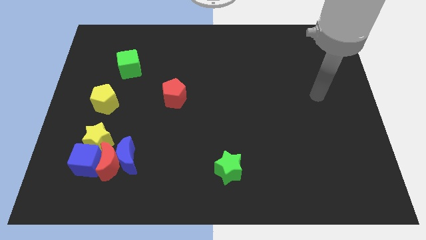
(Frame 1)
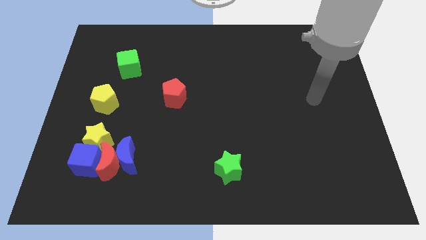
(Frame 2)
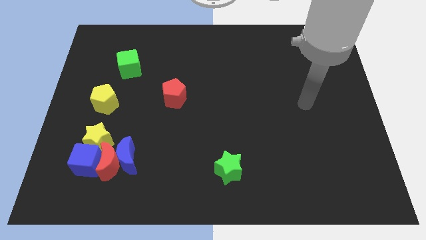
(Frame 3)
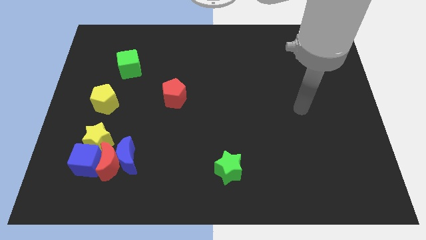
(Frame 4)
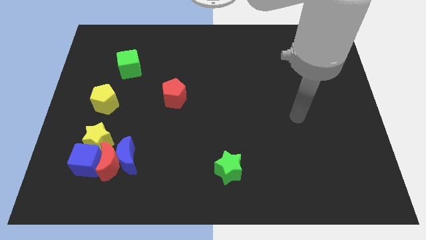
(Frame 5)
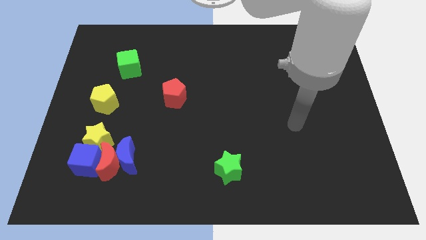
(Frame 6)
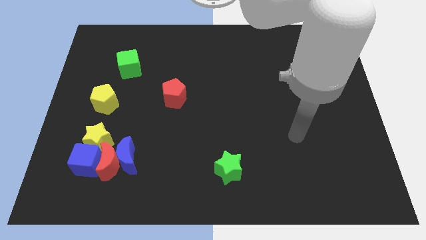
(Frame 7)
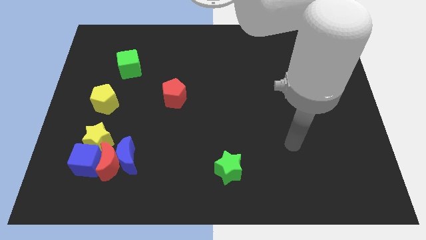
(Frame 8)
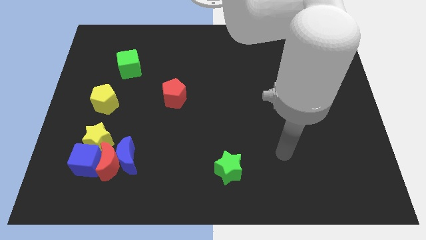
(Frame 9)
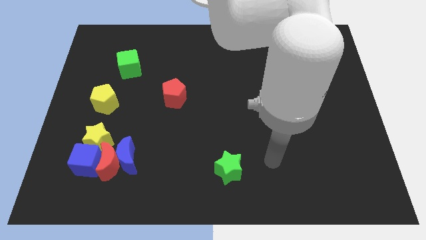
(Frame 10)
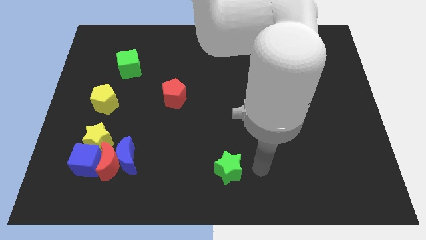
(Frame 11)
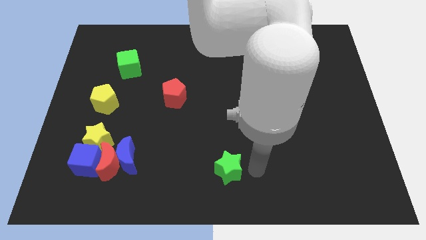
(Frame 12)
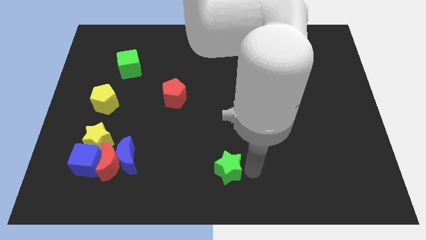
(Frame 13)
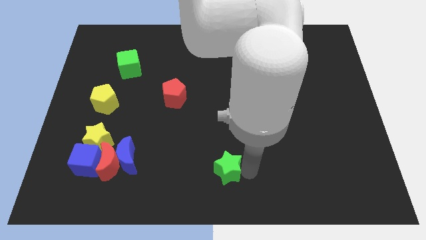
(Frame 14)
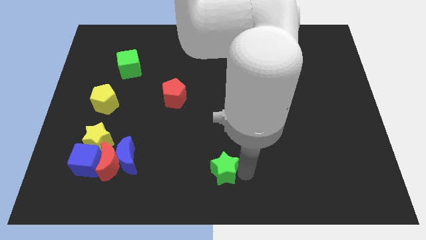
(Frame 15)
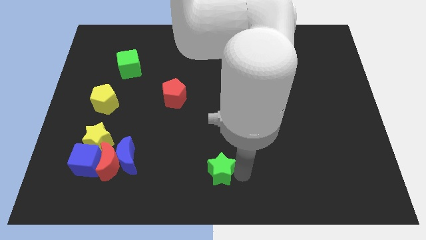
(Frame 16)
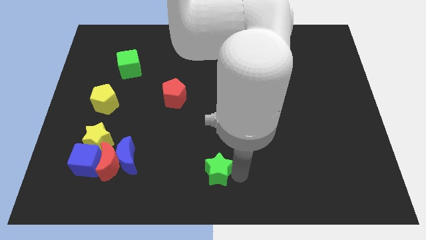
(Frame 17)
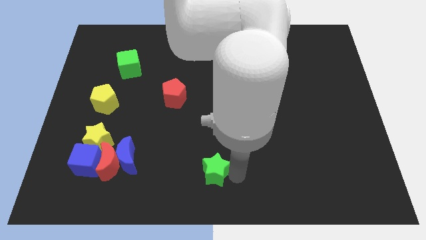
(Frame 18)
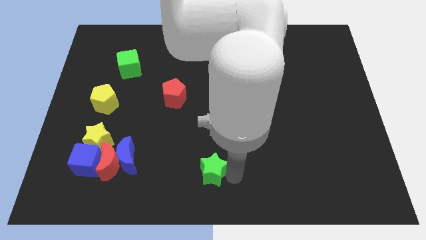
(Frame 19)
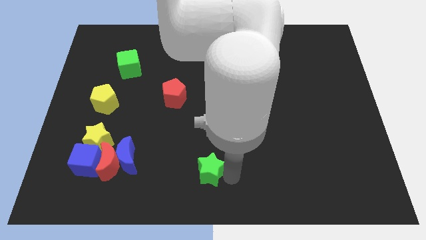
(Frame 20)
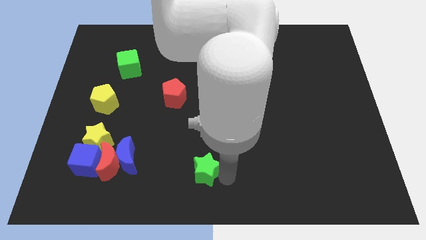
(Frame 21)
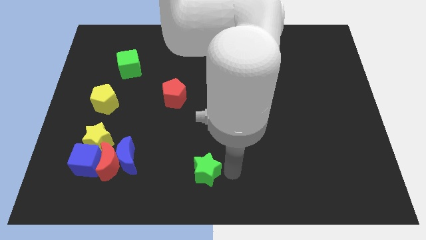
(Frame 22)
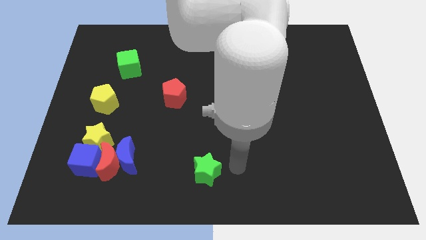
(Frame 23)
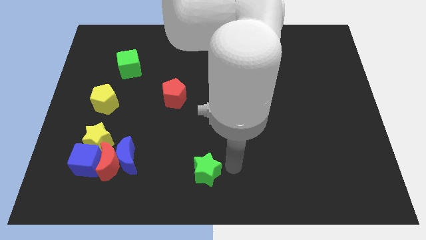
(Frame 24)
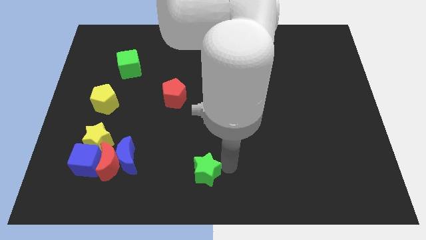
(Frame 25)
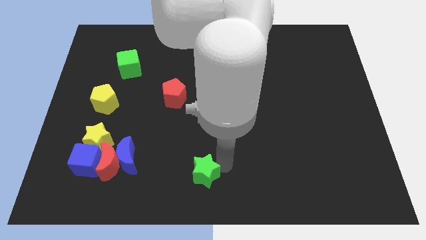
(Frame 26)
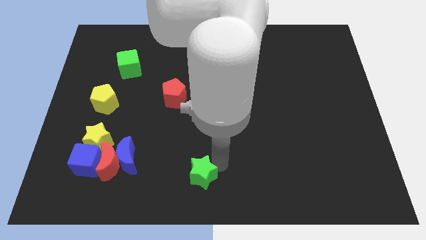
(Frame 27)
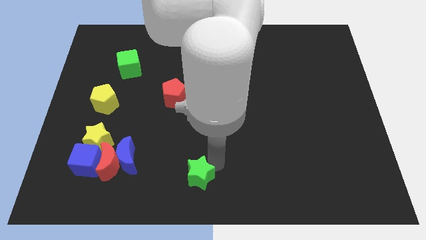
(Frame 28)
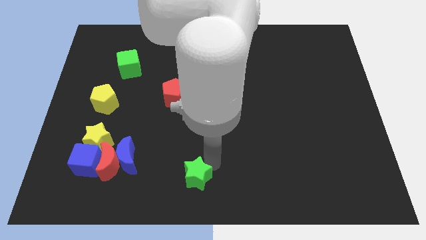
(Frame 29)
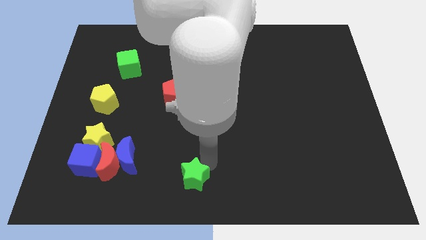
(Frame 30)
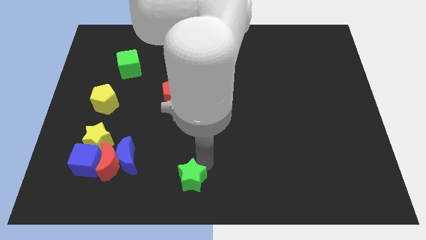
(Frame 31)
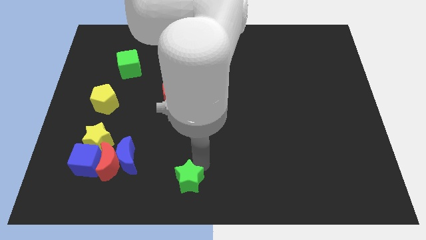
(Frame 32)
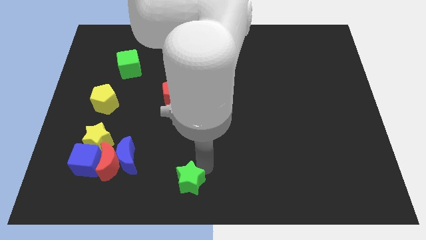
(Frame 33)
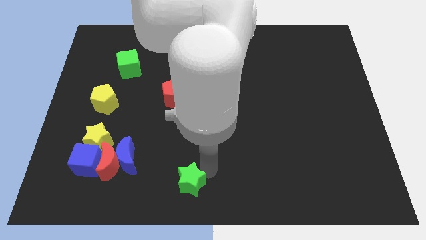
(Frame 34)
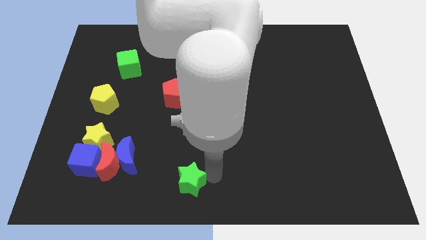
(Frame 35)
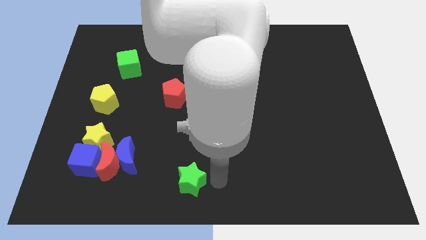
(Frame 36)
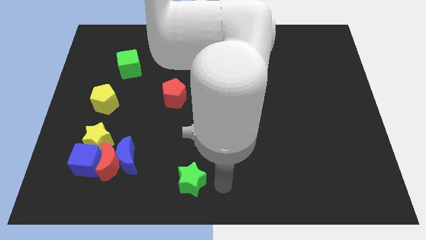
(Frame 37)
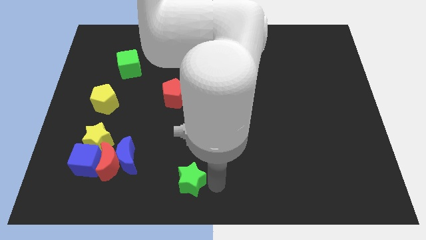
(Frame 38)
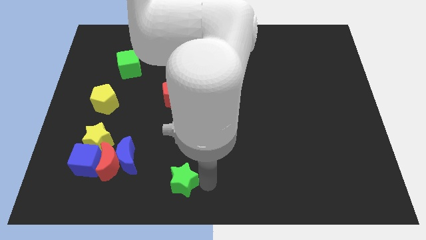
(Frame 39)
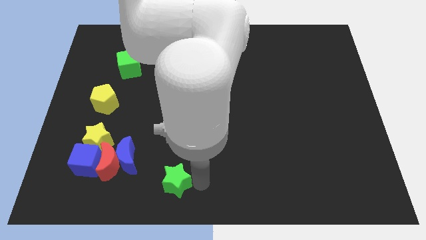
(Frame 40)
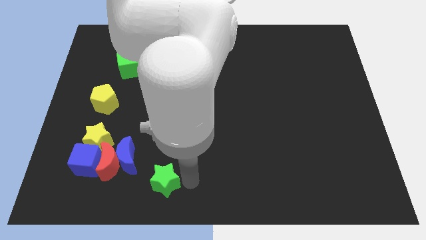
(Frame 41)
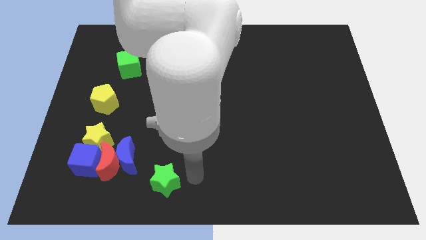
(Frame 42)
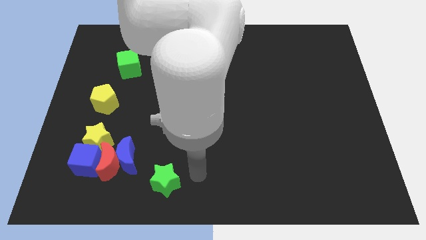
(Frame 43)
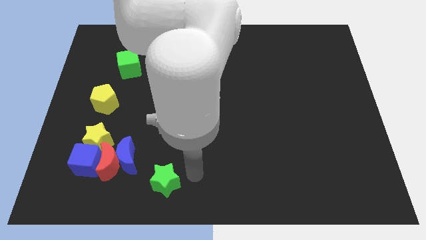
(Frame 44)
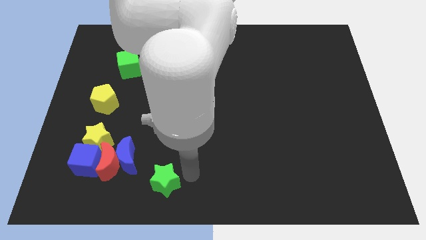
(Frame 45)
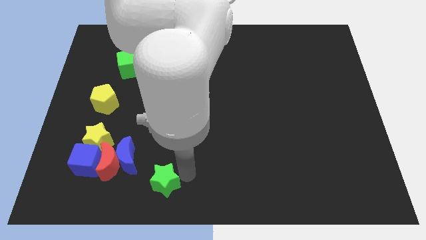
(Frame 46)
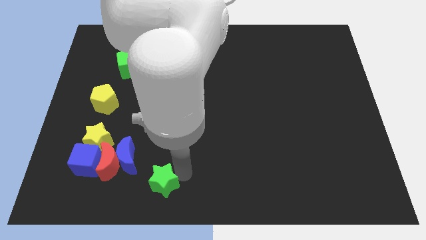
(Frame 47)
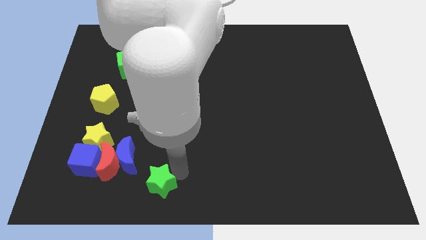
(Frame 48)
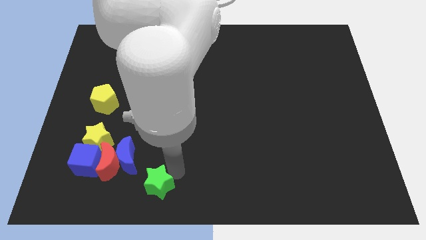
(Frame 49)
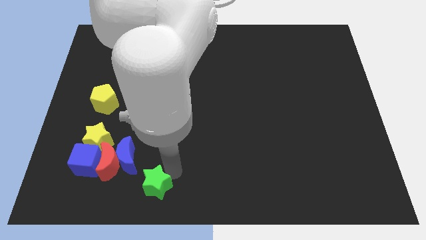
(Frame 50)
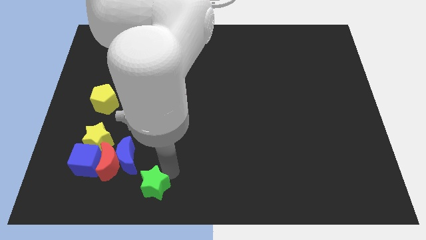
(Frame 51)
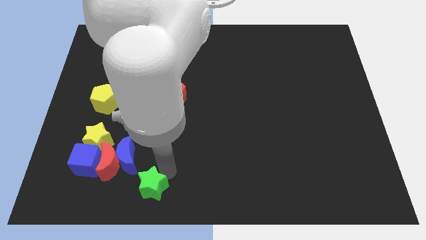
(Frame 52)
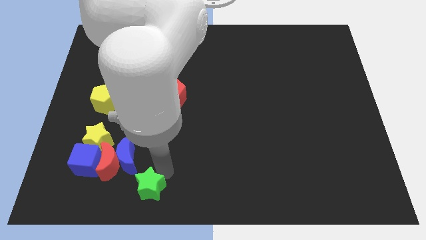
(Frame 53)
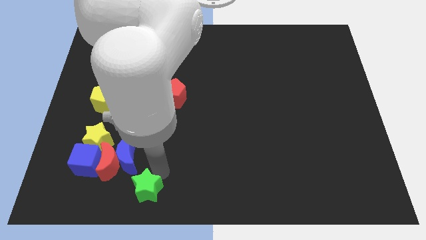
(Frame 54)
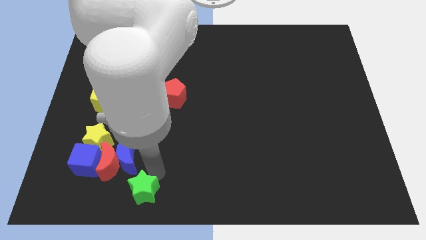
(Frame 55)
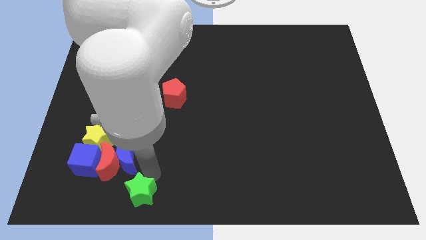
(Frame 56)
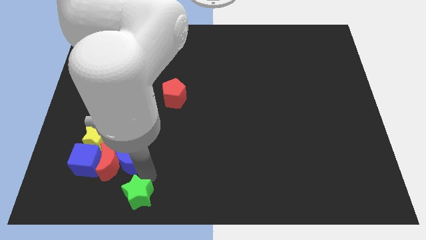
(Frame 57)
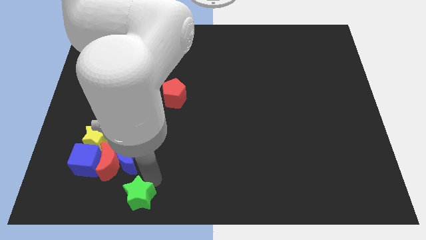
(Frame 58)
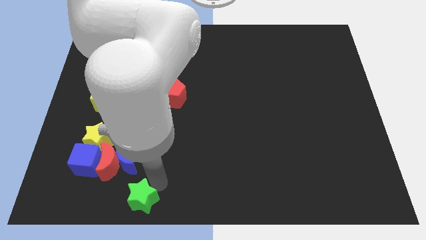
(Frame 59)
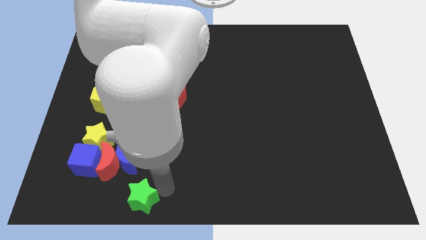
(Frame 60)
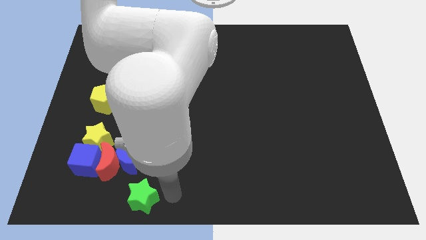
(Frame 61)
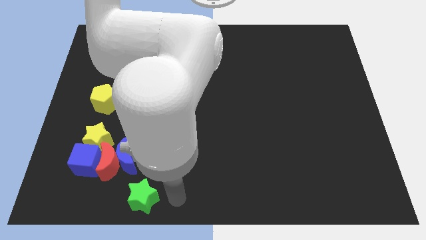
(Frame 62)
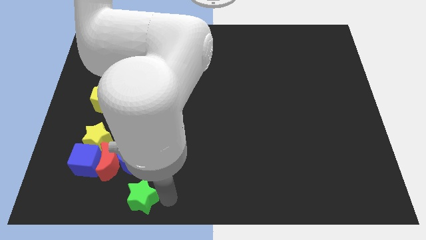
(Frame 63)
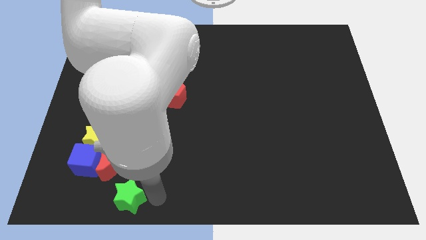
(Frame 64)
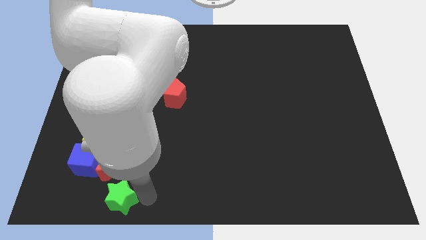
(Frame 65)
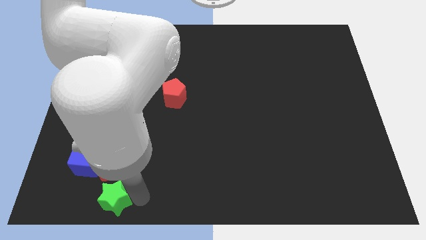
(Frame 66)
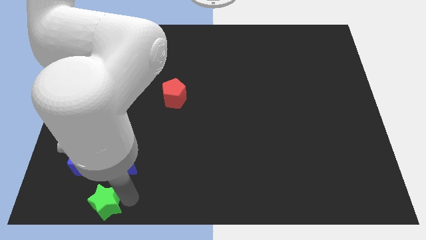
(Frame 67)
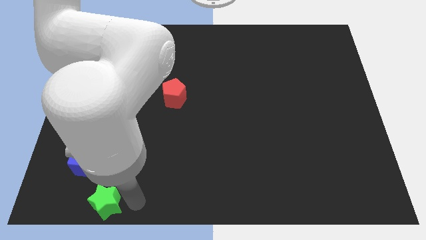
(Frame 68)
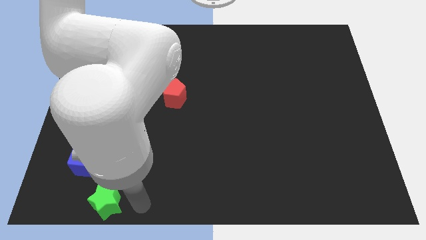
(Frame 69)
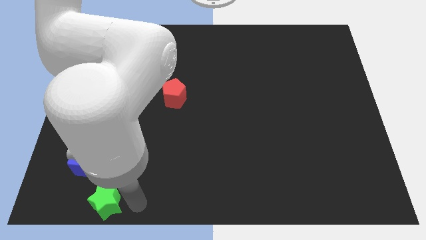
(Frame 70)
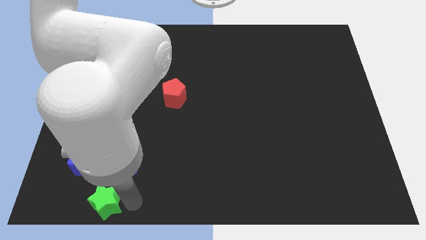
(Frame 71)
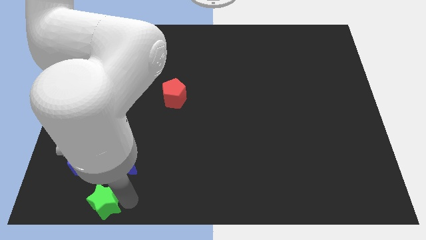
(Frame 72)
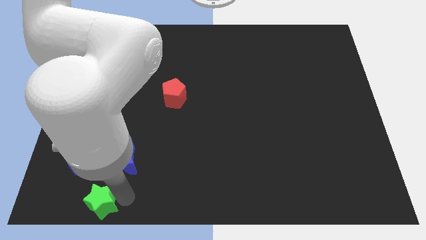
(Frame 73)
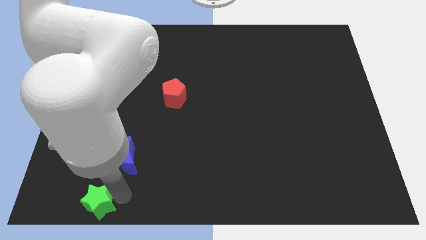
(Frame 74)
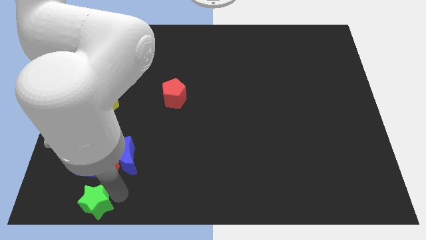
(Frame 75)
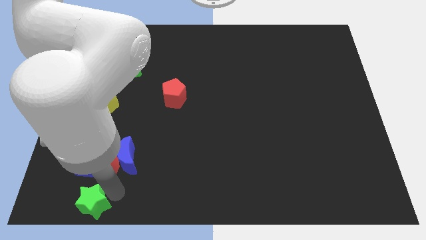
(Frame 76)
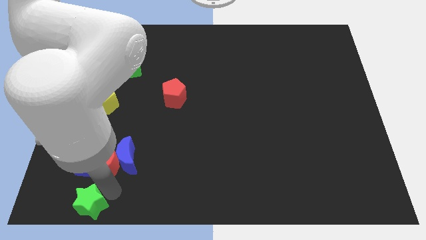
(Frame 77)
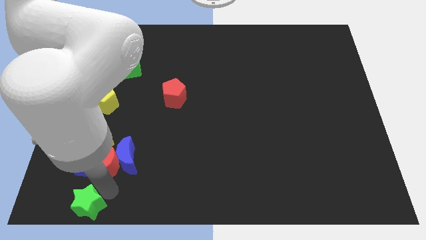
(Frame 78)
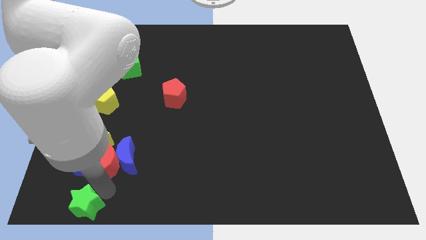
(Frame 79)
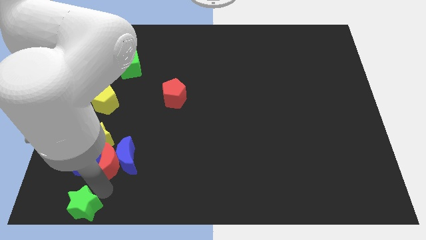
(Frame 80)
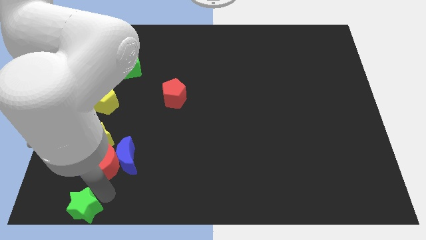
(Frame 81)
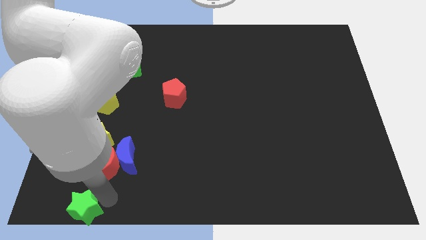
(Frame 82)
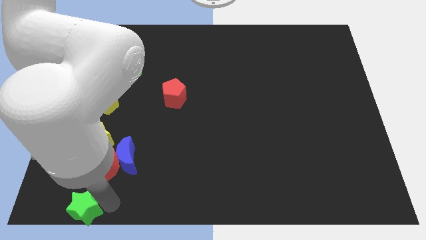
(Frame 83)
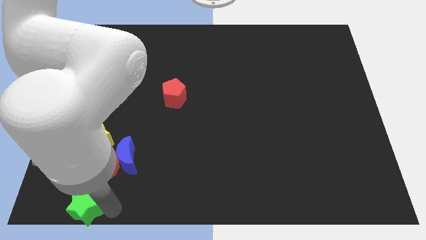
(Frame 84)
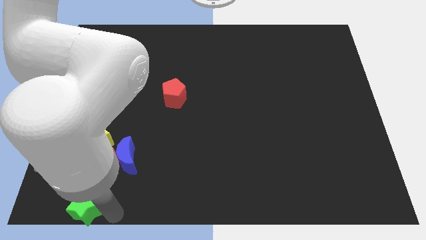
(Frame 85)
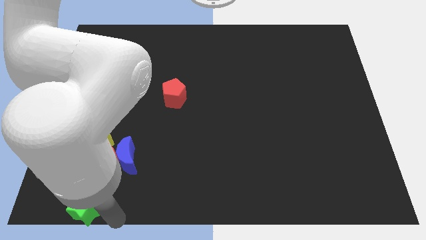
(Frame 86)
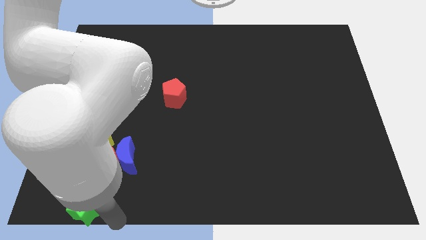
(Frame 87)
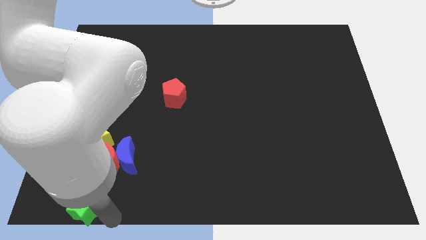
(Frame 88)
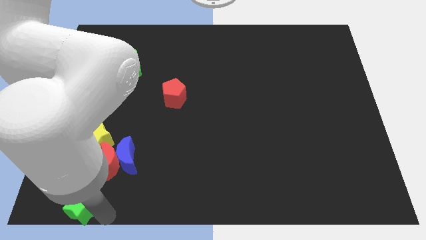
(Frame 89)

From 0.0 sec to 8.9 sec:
slide the green star to the lower left corner
